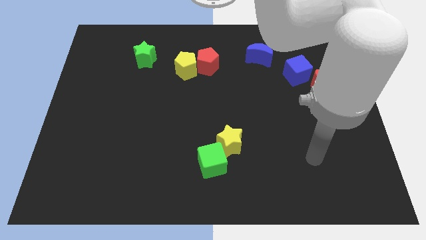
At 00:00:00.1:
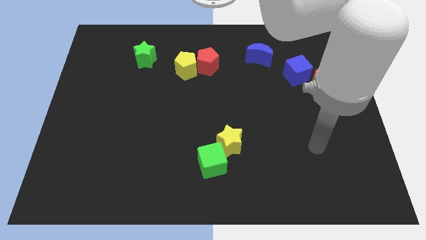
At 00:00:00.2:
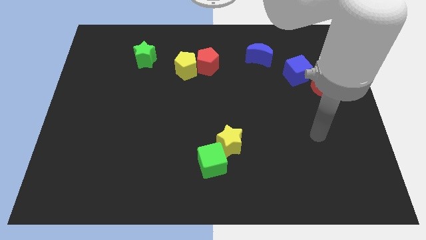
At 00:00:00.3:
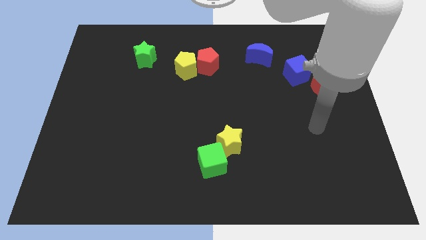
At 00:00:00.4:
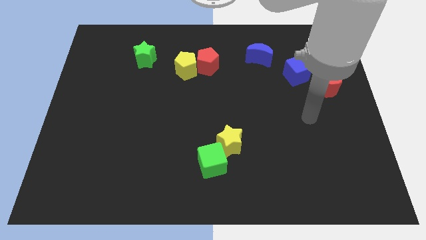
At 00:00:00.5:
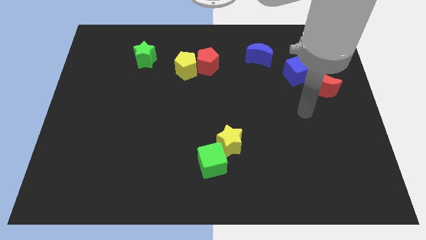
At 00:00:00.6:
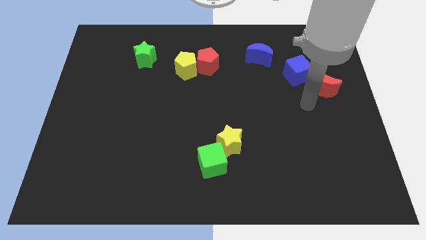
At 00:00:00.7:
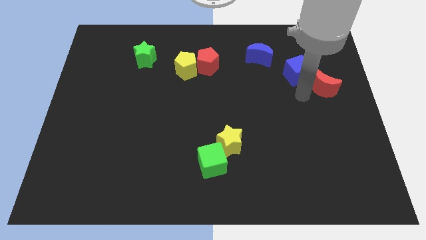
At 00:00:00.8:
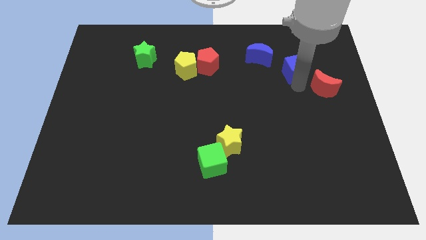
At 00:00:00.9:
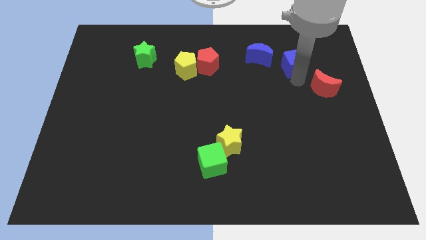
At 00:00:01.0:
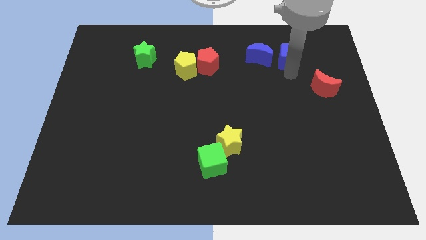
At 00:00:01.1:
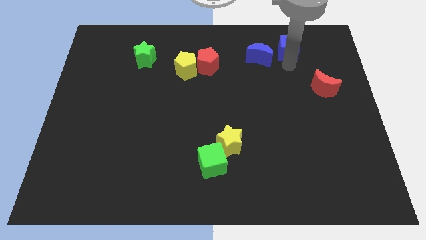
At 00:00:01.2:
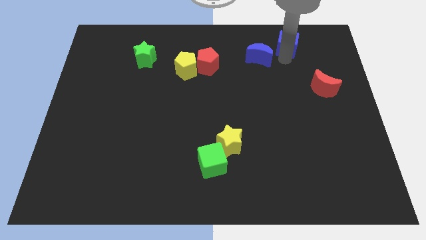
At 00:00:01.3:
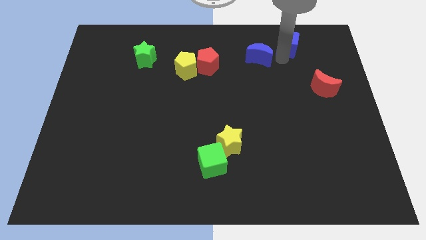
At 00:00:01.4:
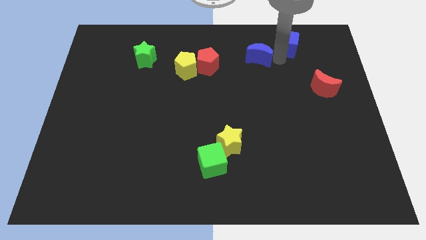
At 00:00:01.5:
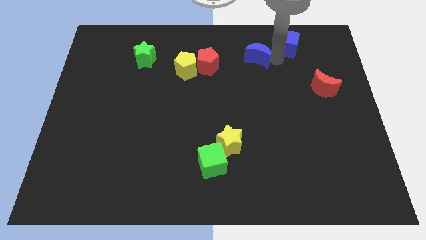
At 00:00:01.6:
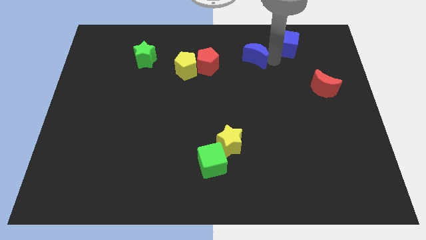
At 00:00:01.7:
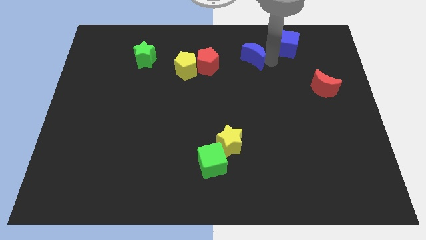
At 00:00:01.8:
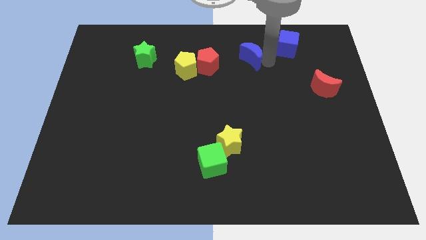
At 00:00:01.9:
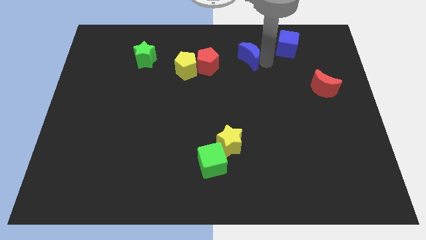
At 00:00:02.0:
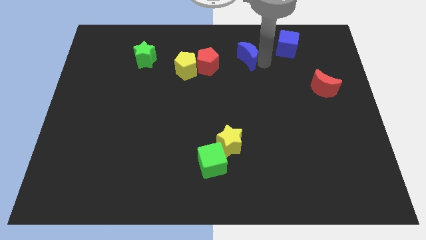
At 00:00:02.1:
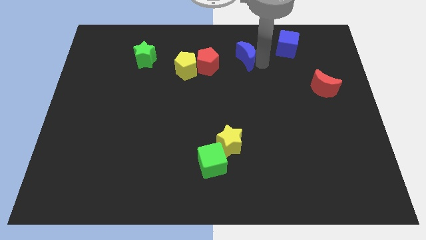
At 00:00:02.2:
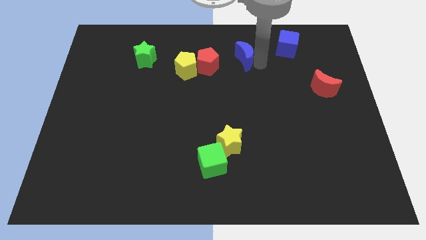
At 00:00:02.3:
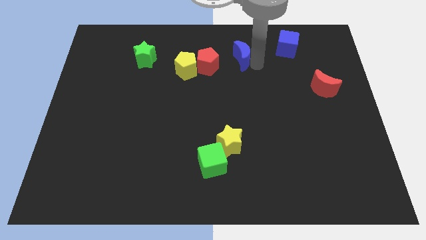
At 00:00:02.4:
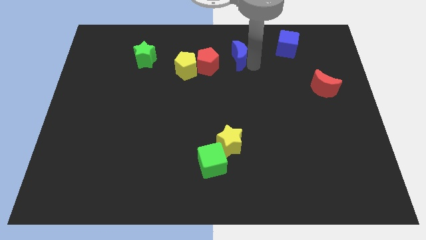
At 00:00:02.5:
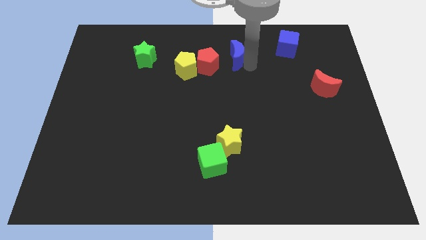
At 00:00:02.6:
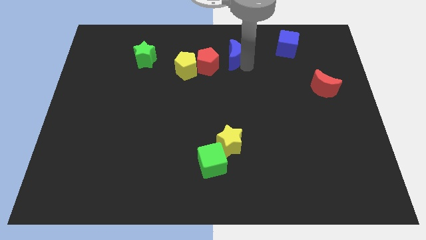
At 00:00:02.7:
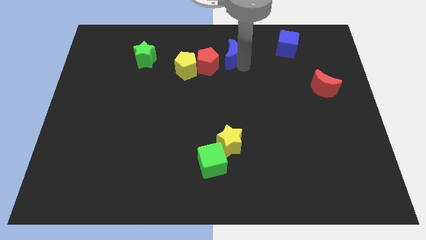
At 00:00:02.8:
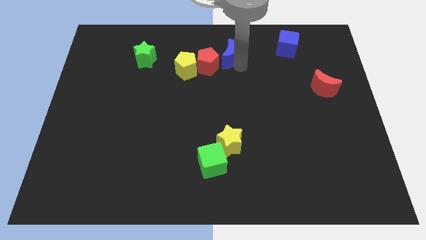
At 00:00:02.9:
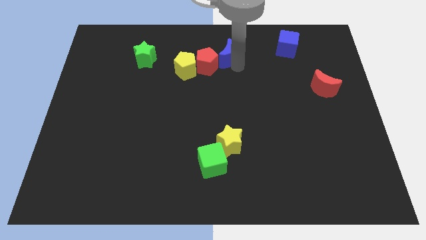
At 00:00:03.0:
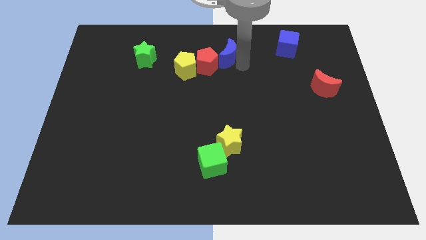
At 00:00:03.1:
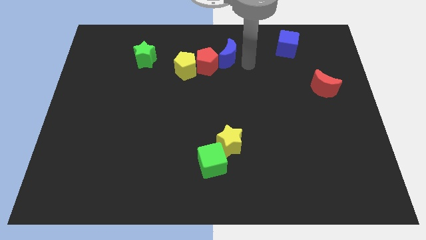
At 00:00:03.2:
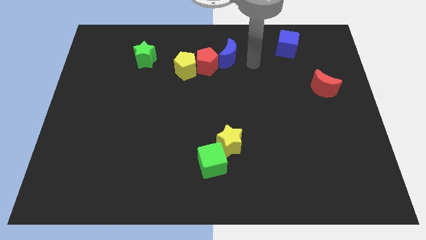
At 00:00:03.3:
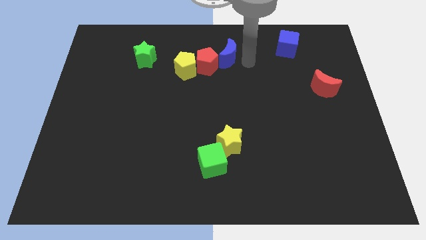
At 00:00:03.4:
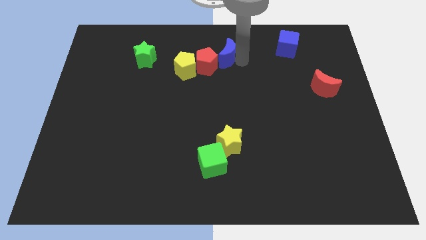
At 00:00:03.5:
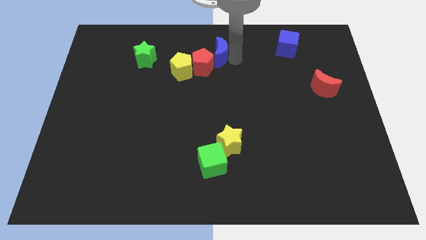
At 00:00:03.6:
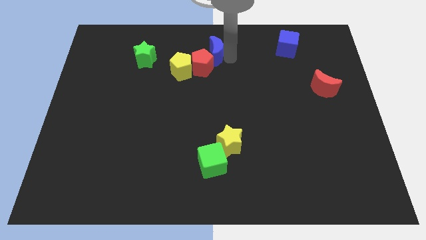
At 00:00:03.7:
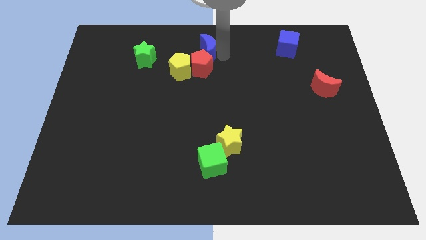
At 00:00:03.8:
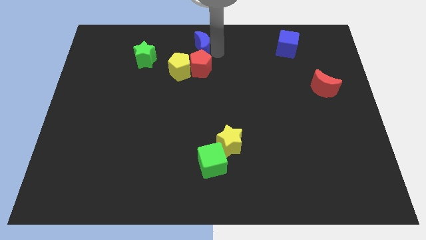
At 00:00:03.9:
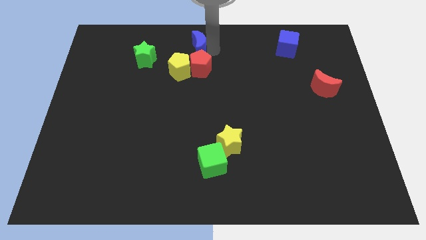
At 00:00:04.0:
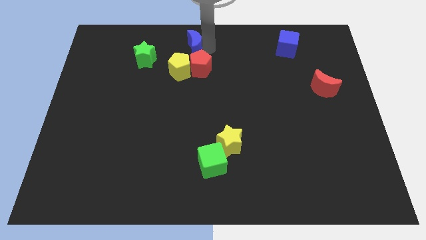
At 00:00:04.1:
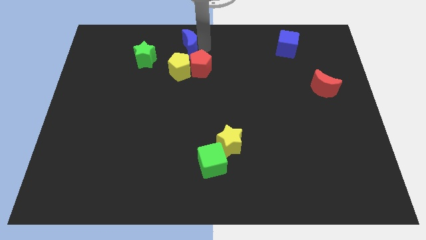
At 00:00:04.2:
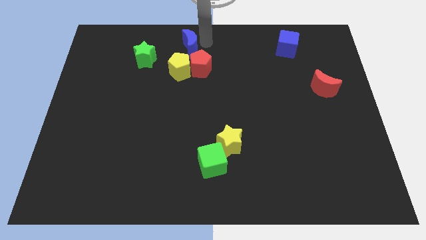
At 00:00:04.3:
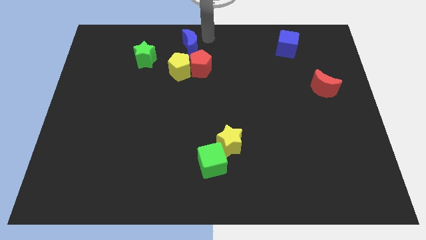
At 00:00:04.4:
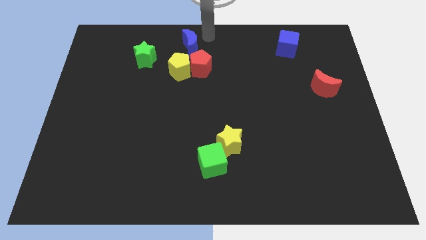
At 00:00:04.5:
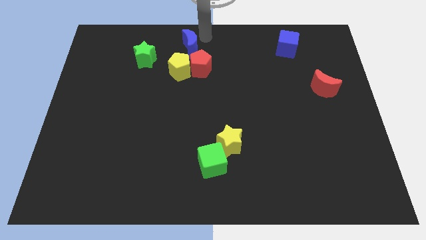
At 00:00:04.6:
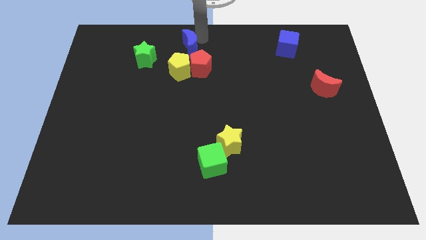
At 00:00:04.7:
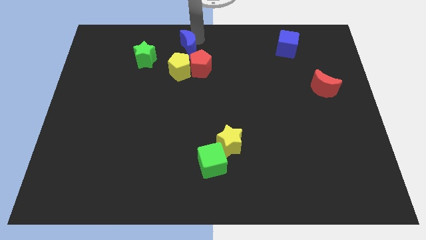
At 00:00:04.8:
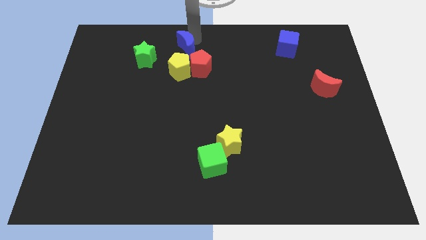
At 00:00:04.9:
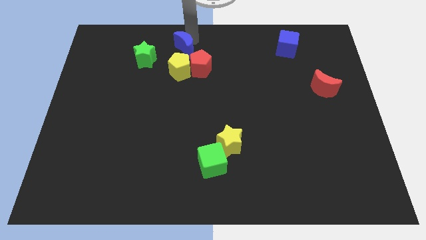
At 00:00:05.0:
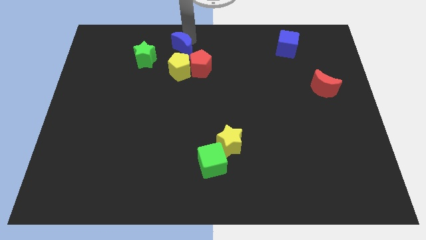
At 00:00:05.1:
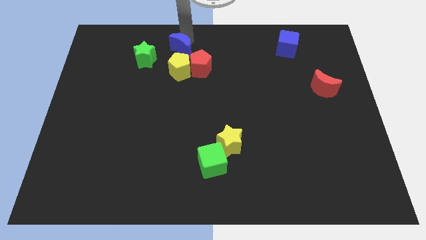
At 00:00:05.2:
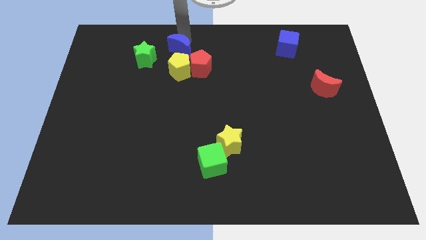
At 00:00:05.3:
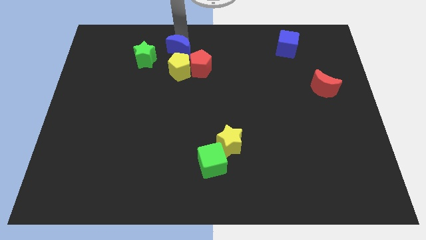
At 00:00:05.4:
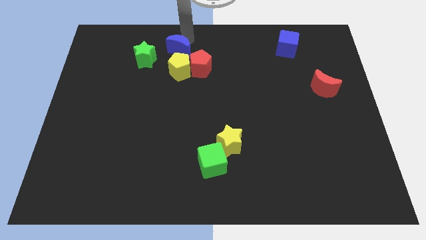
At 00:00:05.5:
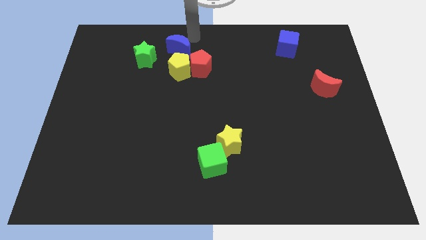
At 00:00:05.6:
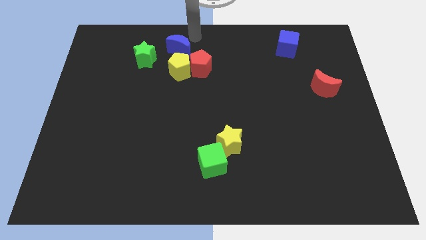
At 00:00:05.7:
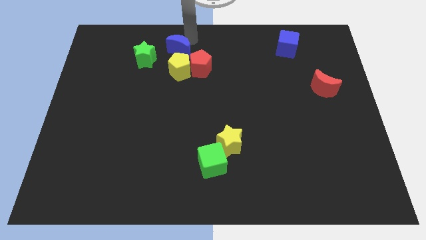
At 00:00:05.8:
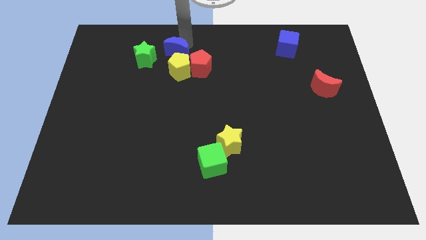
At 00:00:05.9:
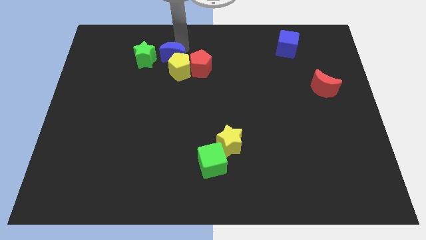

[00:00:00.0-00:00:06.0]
move the blue moon to the left of the red pentagon

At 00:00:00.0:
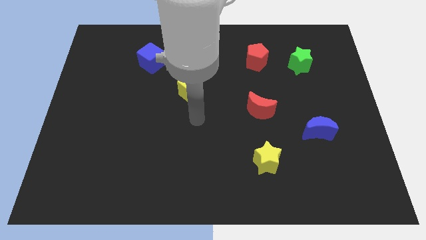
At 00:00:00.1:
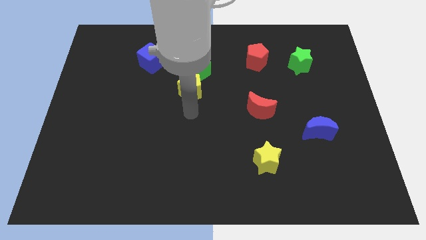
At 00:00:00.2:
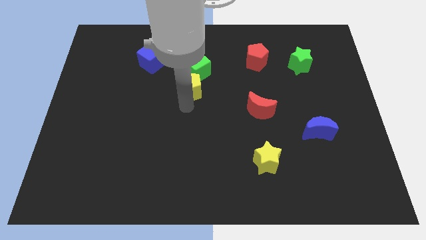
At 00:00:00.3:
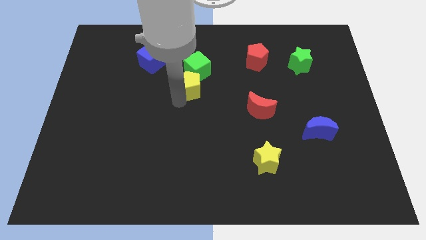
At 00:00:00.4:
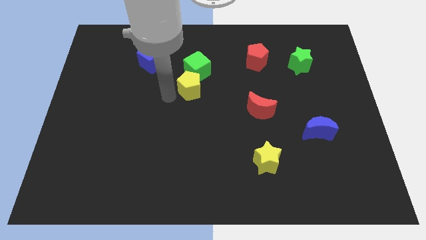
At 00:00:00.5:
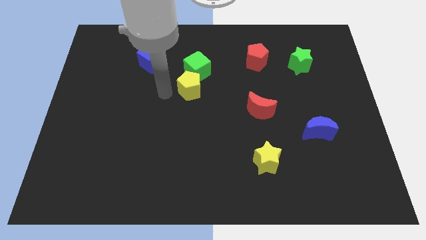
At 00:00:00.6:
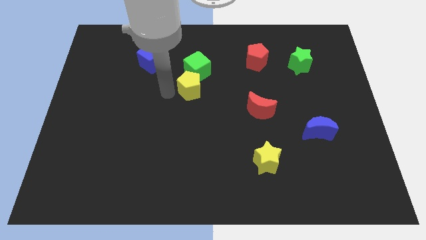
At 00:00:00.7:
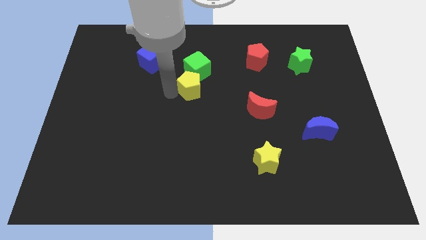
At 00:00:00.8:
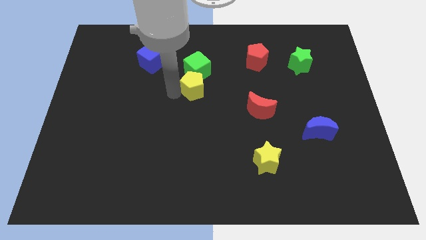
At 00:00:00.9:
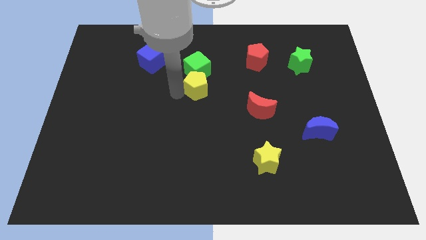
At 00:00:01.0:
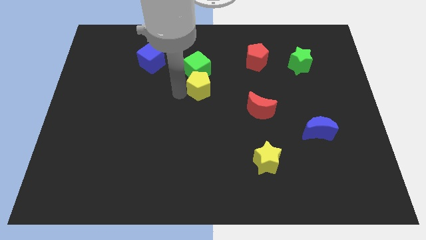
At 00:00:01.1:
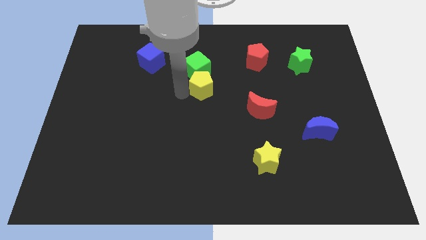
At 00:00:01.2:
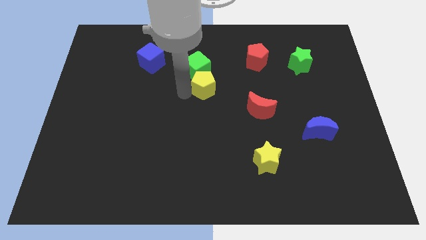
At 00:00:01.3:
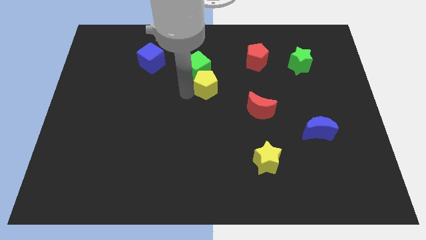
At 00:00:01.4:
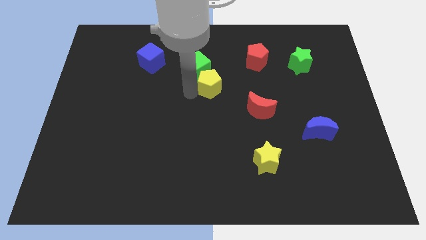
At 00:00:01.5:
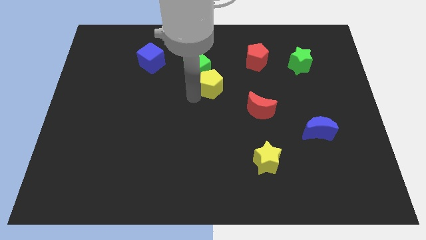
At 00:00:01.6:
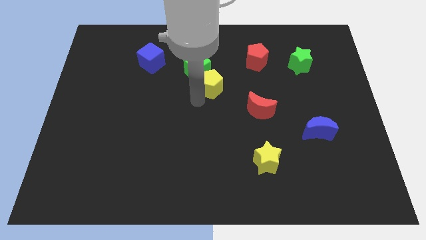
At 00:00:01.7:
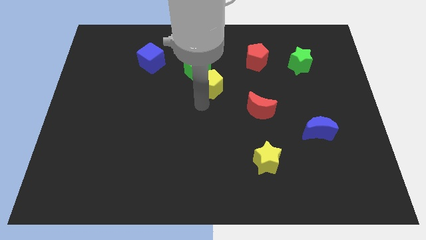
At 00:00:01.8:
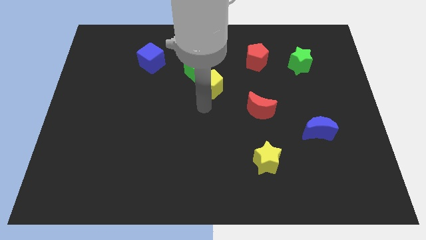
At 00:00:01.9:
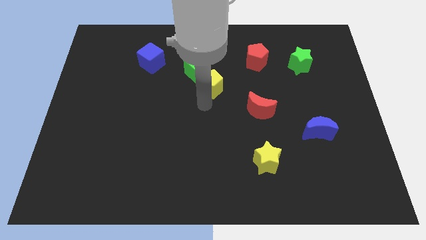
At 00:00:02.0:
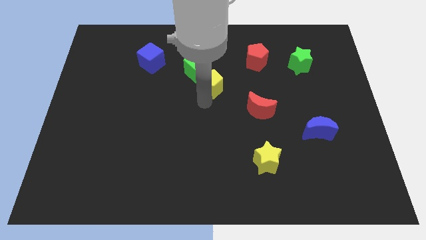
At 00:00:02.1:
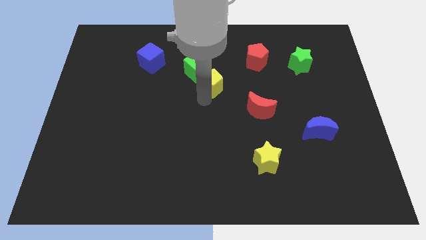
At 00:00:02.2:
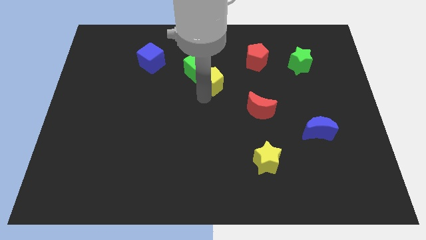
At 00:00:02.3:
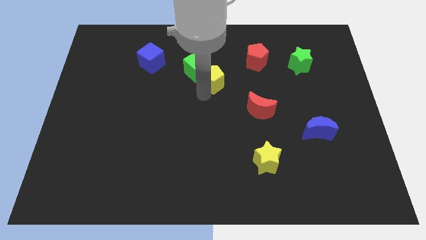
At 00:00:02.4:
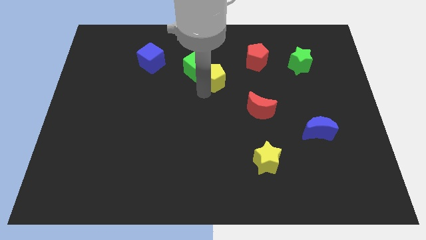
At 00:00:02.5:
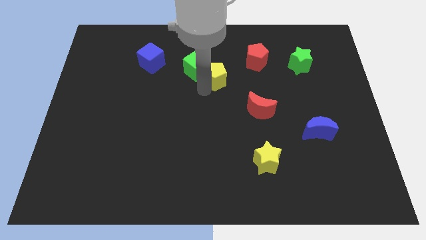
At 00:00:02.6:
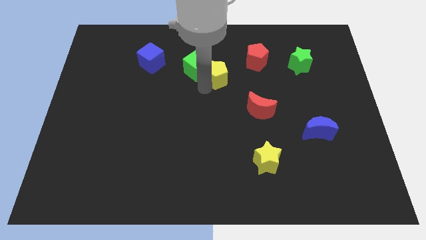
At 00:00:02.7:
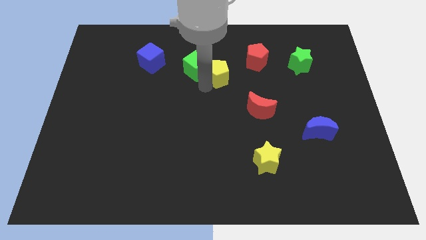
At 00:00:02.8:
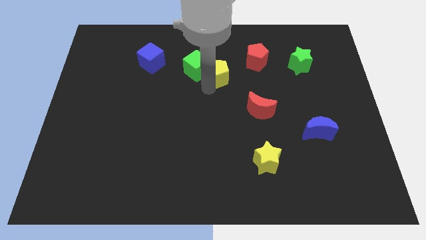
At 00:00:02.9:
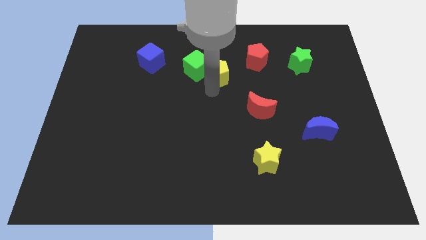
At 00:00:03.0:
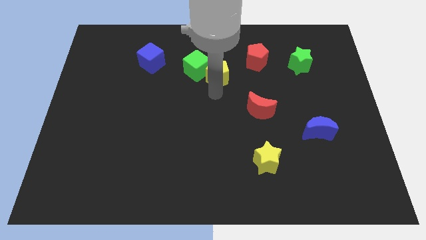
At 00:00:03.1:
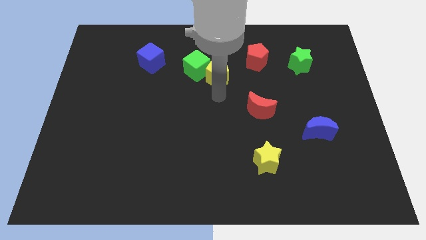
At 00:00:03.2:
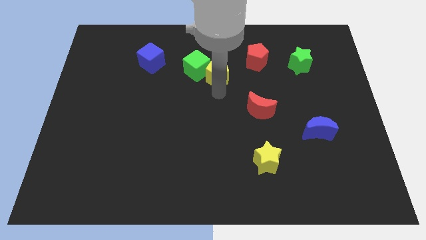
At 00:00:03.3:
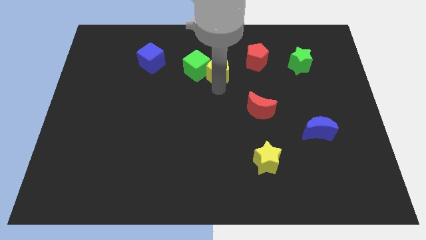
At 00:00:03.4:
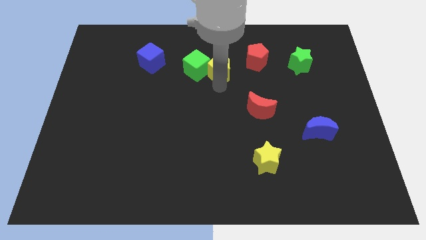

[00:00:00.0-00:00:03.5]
push the yellow pentagon diagonally up and to the right of the green cube
